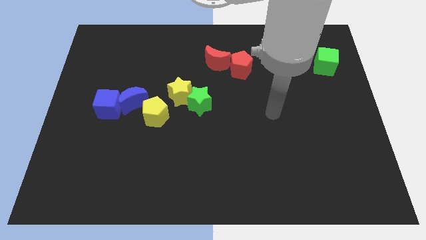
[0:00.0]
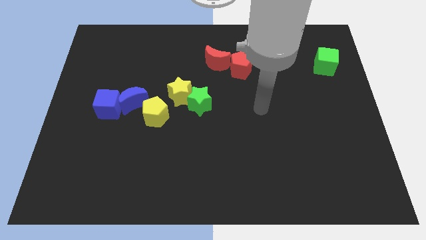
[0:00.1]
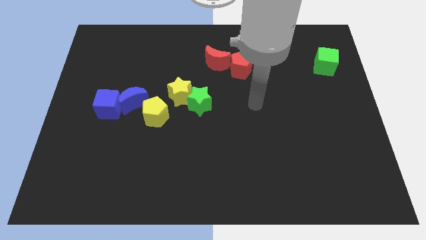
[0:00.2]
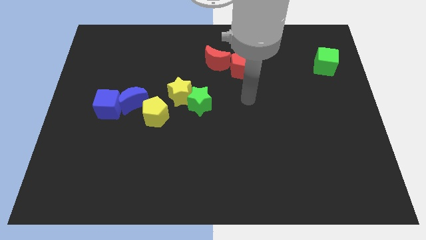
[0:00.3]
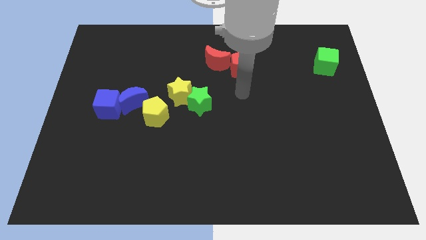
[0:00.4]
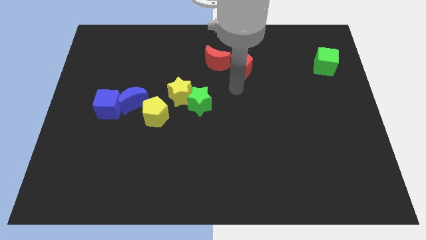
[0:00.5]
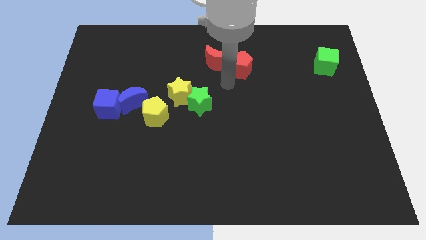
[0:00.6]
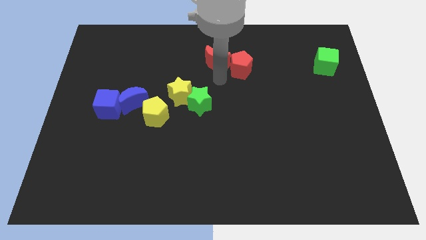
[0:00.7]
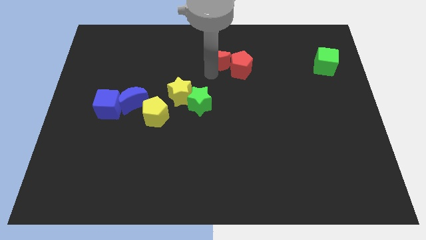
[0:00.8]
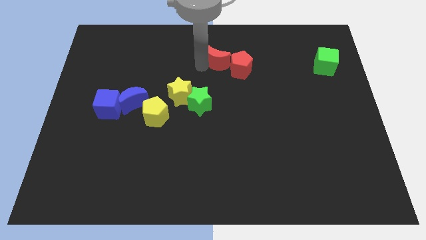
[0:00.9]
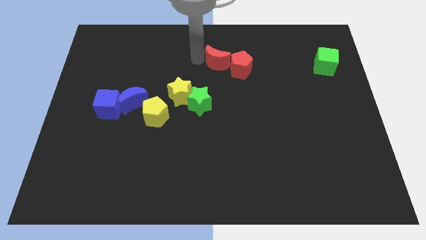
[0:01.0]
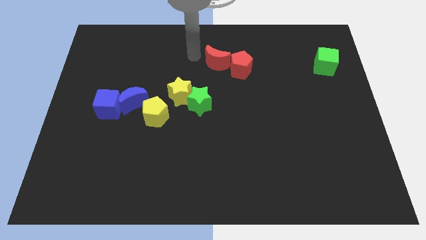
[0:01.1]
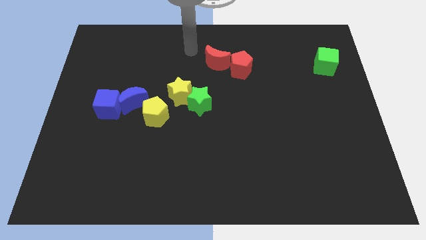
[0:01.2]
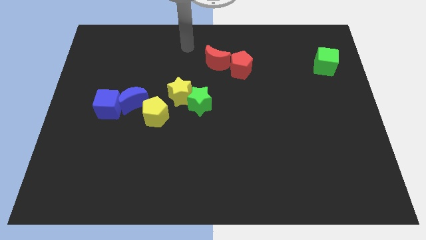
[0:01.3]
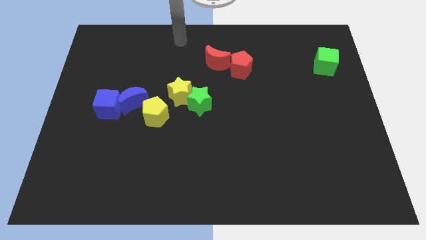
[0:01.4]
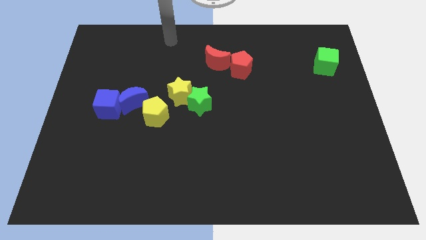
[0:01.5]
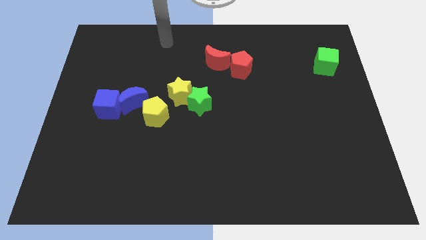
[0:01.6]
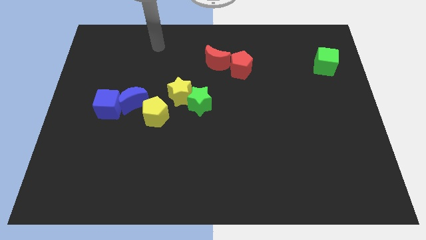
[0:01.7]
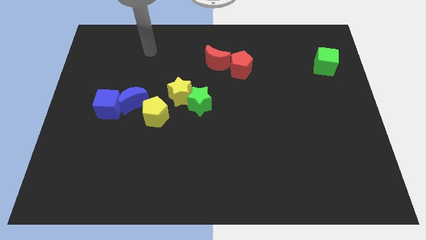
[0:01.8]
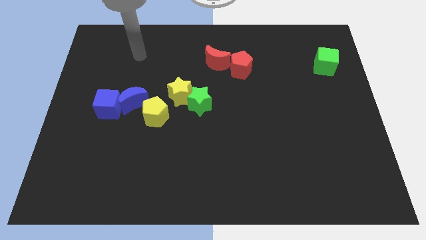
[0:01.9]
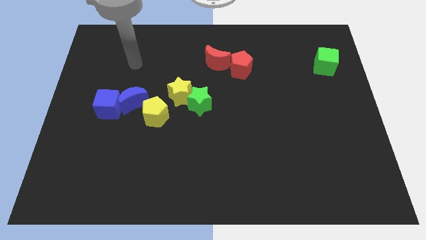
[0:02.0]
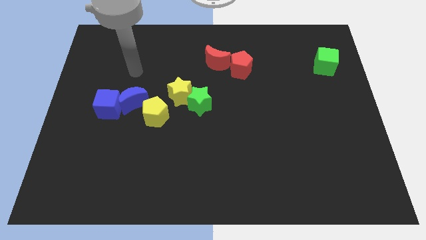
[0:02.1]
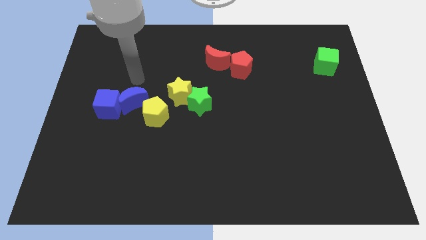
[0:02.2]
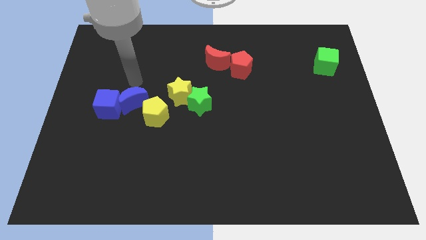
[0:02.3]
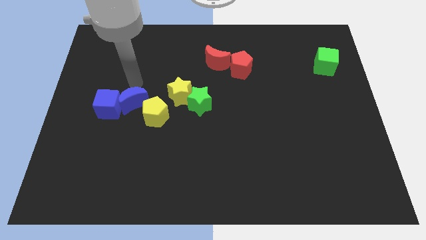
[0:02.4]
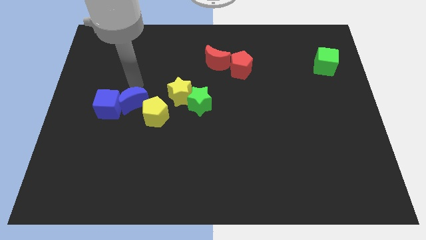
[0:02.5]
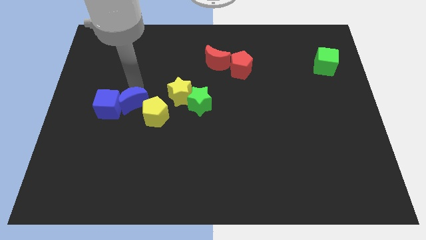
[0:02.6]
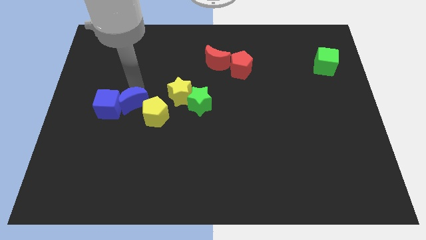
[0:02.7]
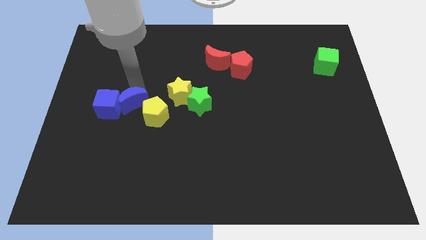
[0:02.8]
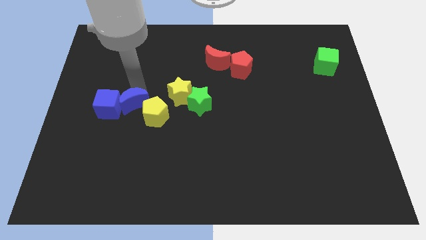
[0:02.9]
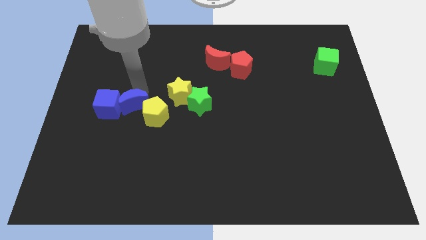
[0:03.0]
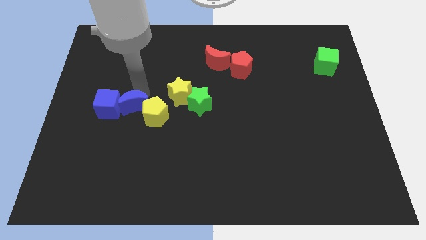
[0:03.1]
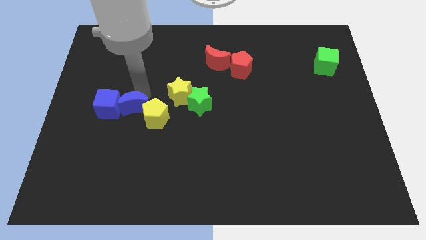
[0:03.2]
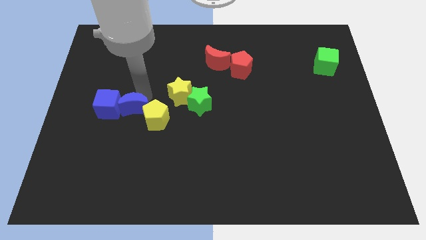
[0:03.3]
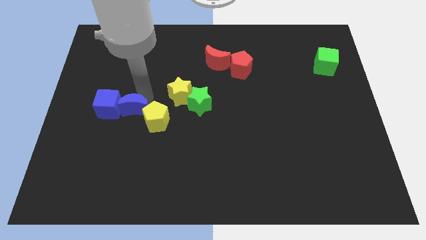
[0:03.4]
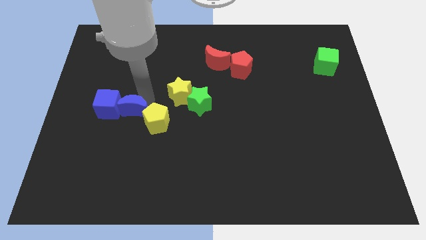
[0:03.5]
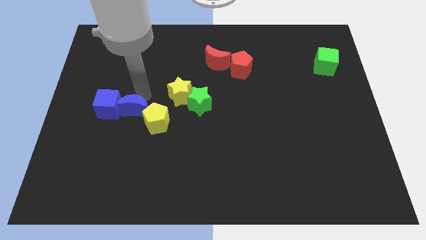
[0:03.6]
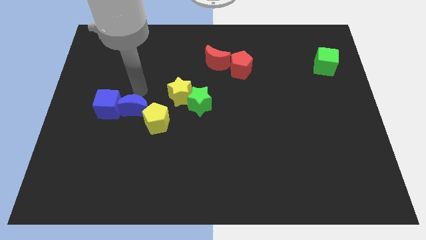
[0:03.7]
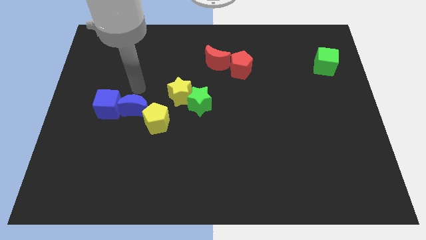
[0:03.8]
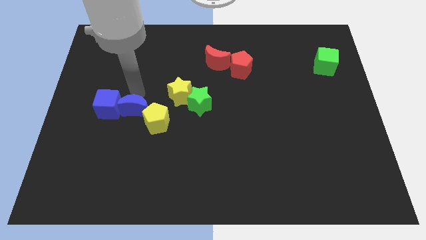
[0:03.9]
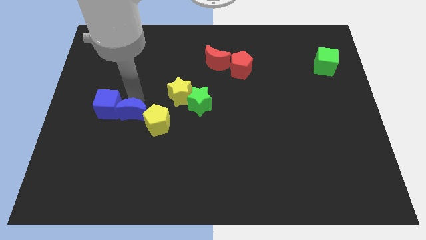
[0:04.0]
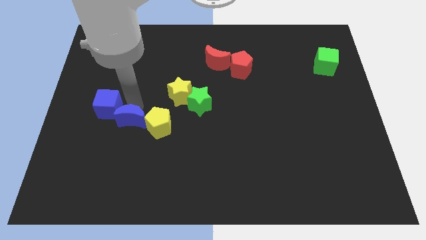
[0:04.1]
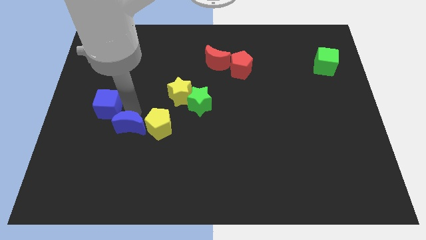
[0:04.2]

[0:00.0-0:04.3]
move the blue moon slightly down

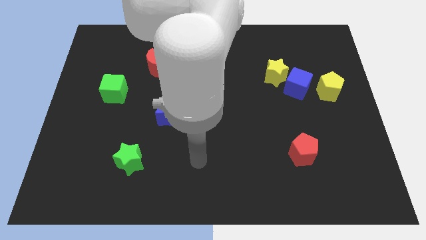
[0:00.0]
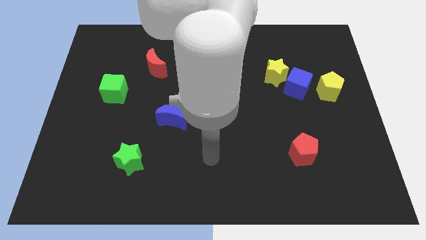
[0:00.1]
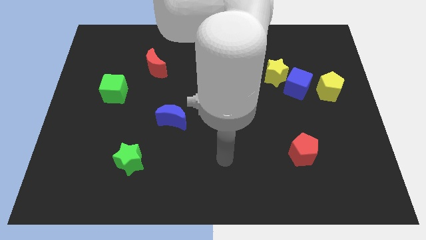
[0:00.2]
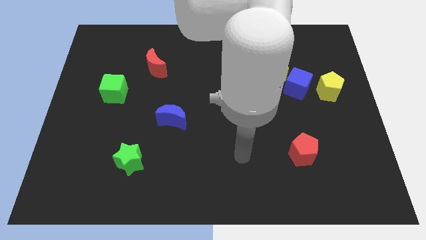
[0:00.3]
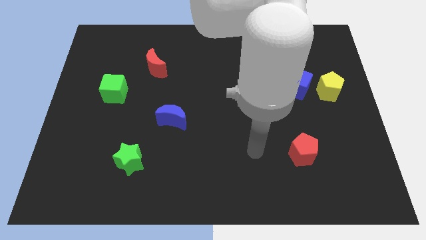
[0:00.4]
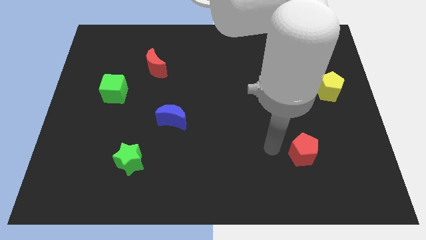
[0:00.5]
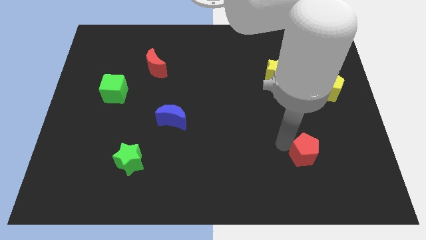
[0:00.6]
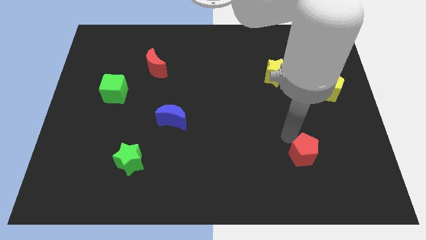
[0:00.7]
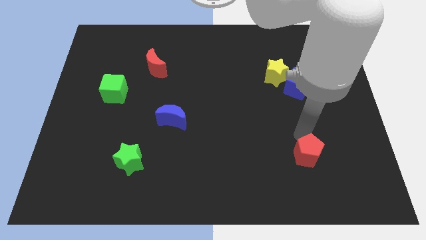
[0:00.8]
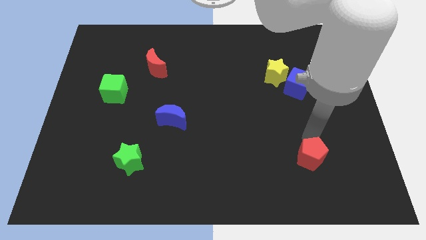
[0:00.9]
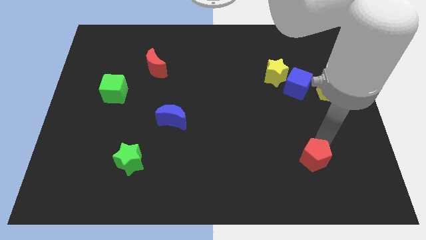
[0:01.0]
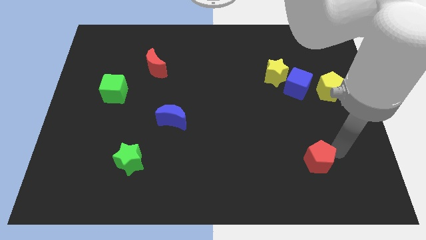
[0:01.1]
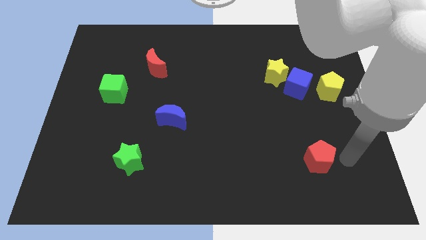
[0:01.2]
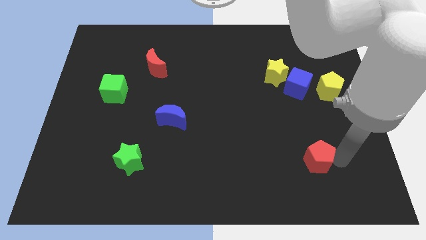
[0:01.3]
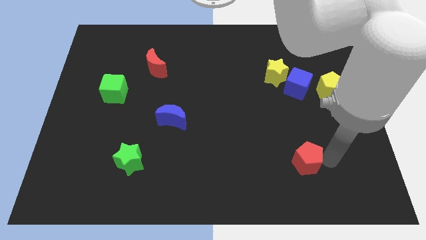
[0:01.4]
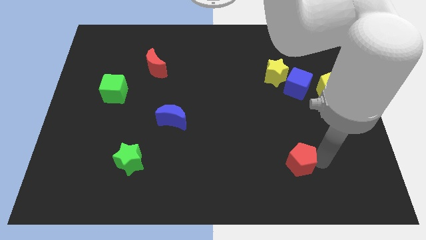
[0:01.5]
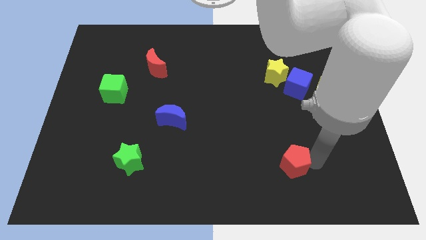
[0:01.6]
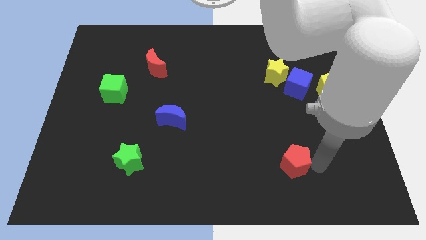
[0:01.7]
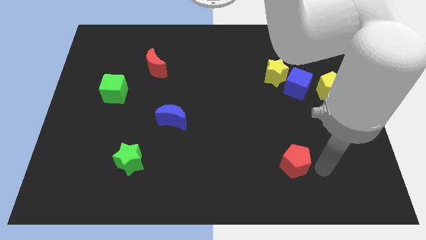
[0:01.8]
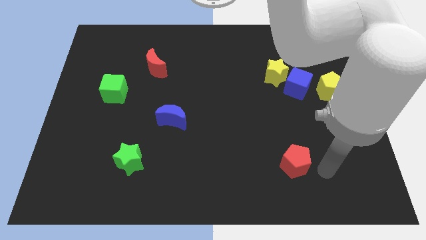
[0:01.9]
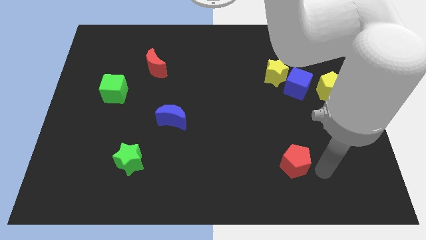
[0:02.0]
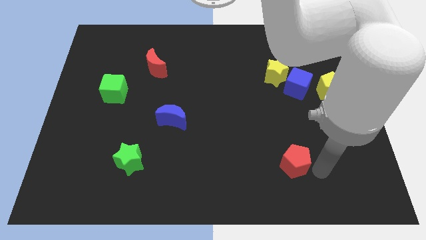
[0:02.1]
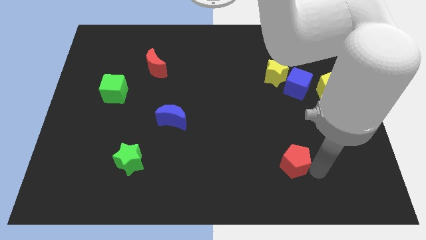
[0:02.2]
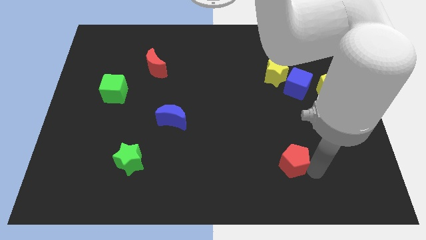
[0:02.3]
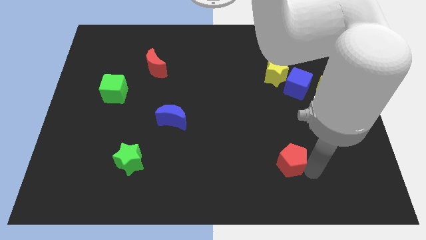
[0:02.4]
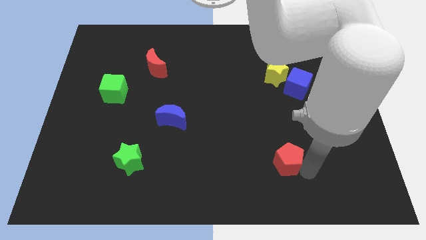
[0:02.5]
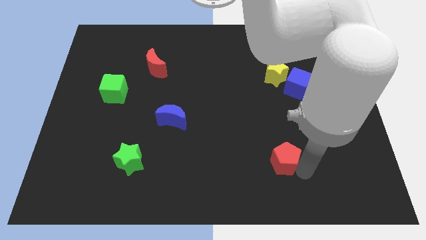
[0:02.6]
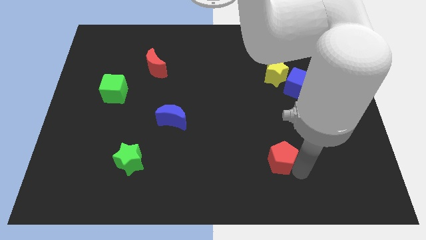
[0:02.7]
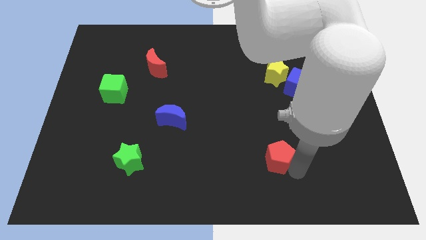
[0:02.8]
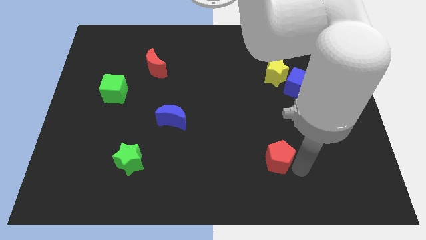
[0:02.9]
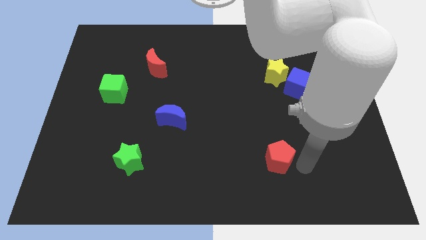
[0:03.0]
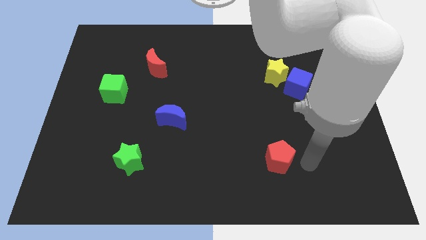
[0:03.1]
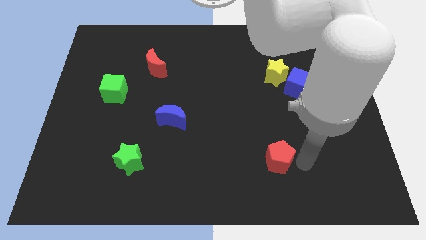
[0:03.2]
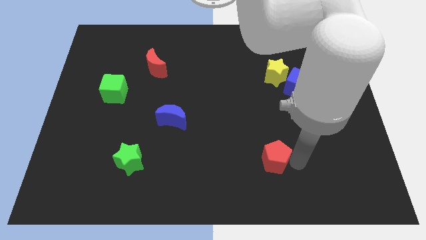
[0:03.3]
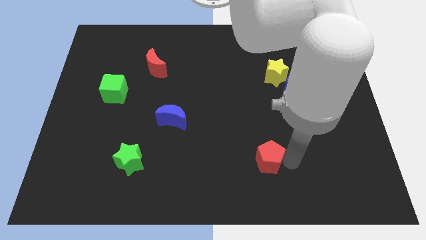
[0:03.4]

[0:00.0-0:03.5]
move the red pentagon to the left a bit

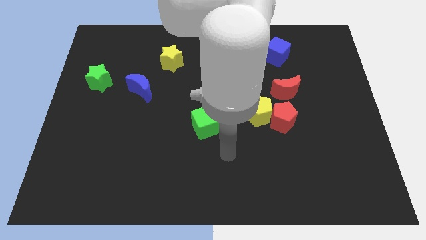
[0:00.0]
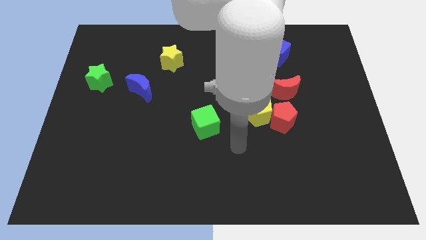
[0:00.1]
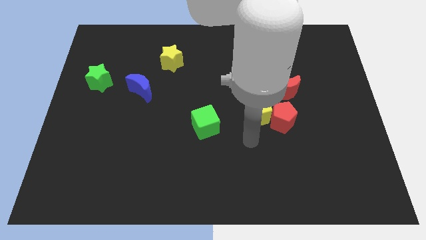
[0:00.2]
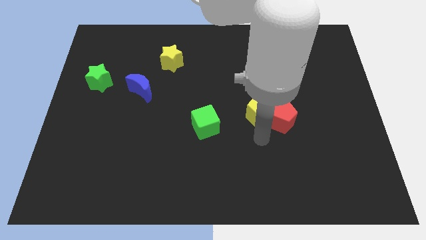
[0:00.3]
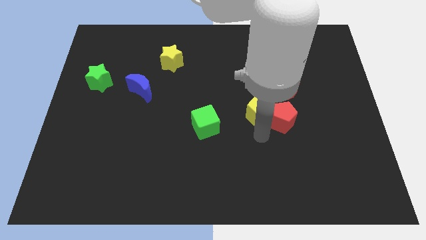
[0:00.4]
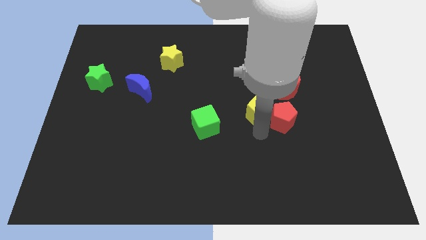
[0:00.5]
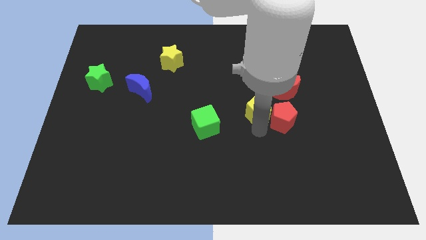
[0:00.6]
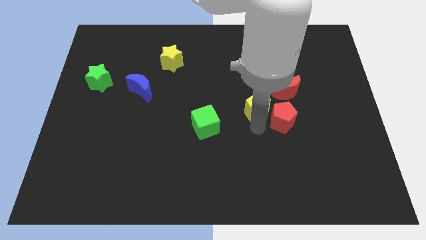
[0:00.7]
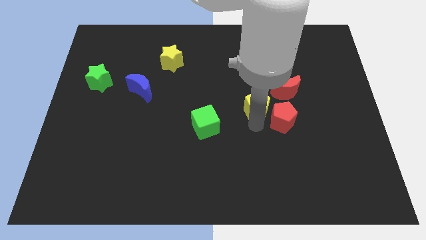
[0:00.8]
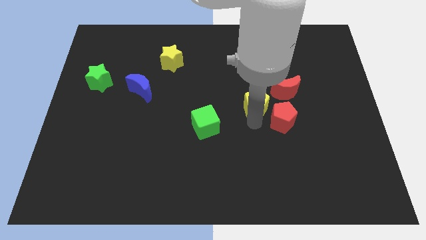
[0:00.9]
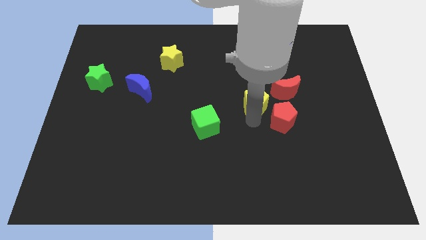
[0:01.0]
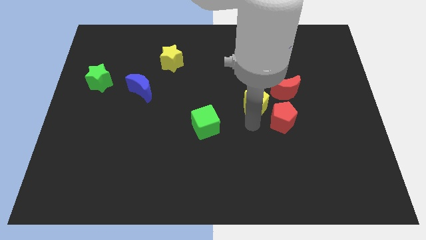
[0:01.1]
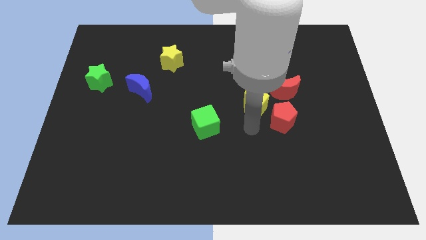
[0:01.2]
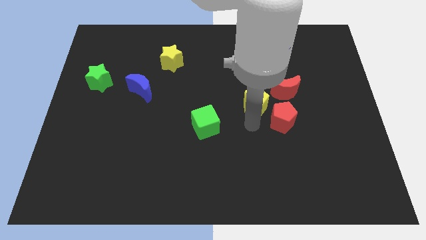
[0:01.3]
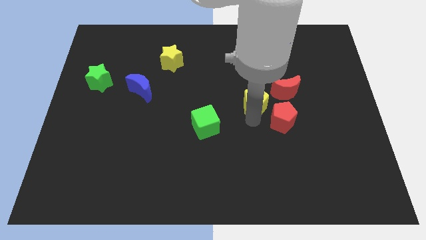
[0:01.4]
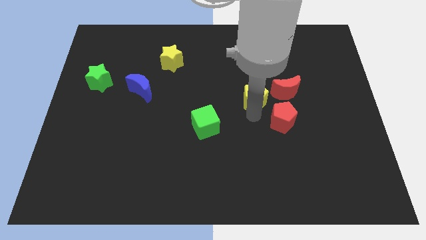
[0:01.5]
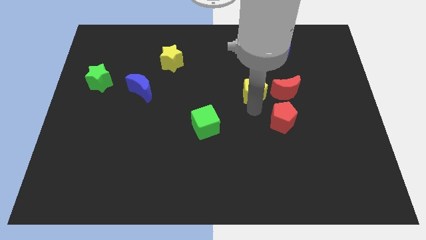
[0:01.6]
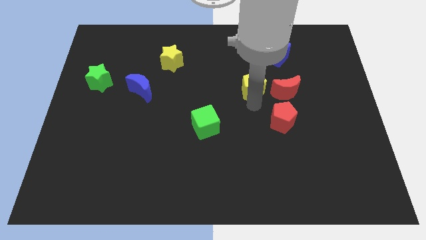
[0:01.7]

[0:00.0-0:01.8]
slightly push the yellow pentagon upwards
